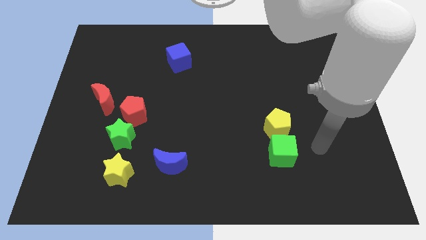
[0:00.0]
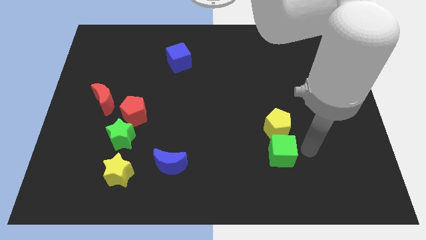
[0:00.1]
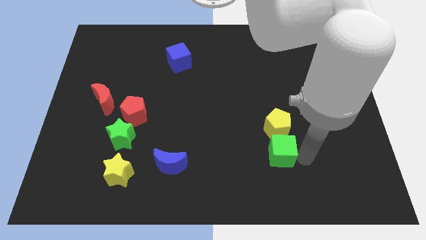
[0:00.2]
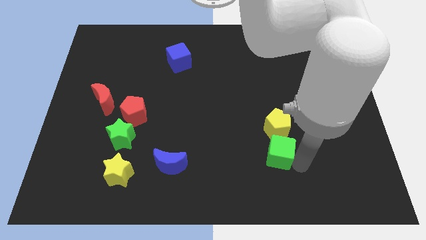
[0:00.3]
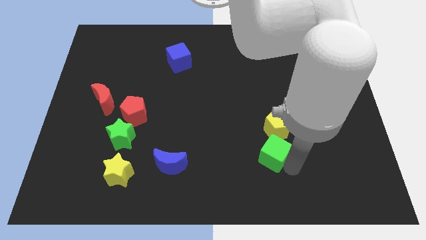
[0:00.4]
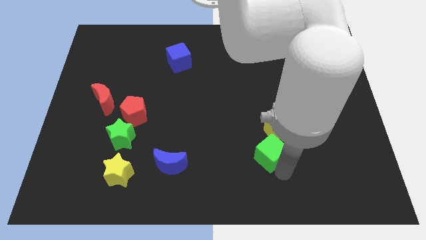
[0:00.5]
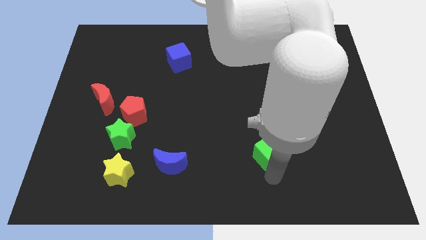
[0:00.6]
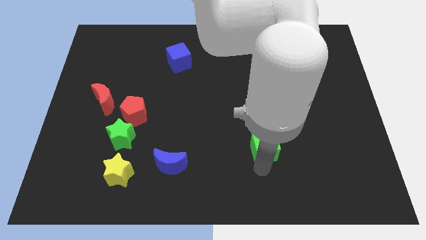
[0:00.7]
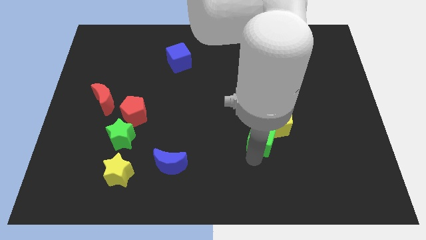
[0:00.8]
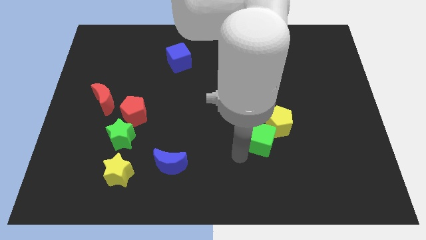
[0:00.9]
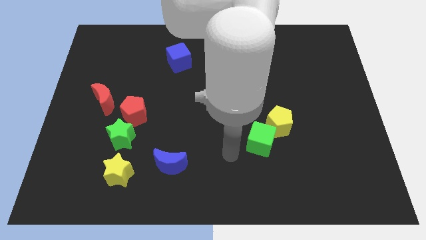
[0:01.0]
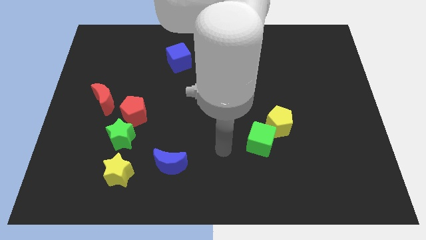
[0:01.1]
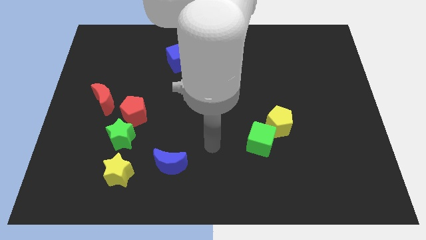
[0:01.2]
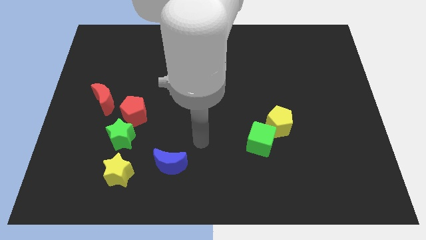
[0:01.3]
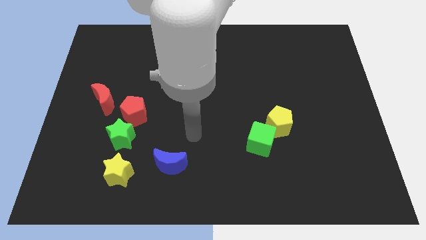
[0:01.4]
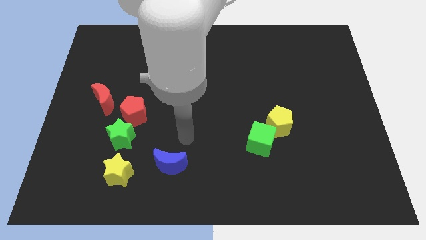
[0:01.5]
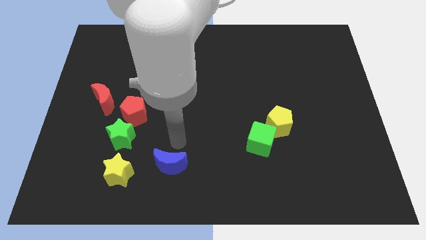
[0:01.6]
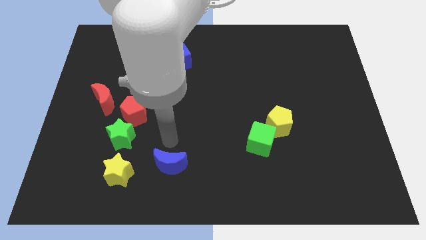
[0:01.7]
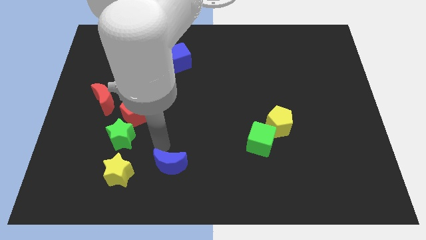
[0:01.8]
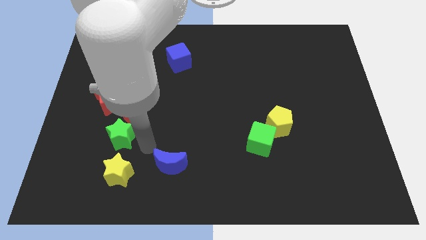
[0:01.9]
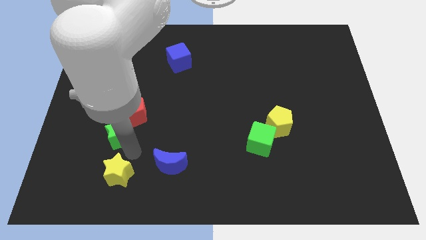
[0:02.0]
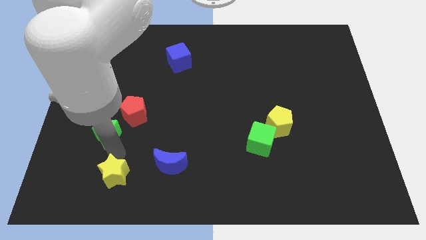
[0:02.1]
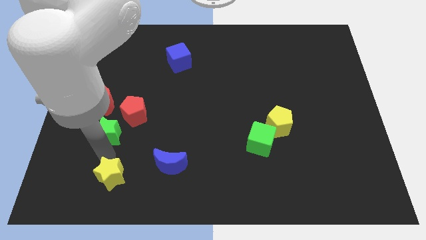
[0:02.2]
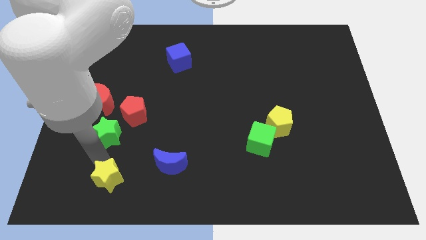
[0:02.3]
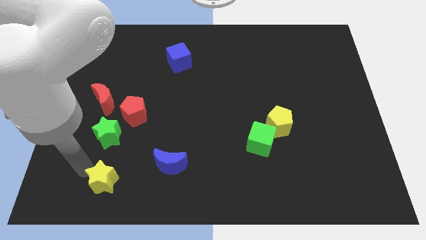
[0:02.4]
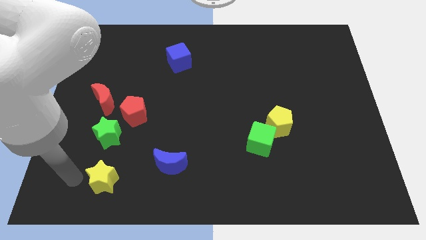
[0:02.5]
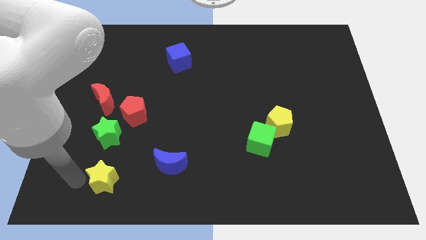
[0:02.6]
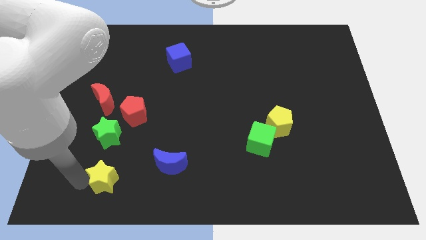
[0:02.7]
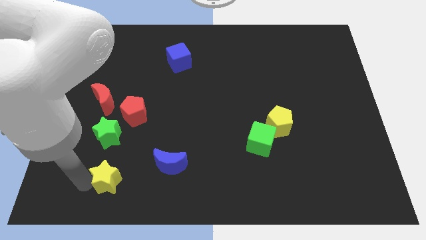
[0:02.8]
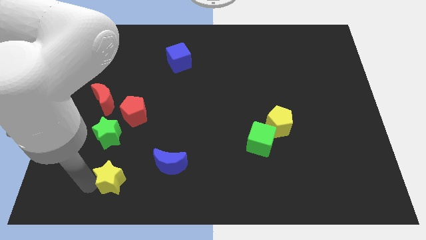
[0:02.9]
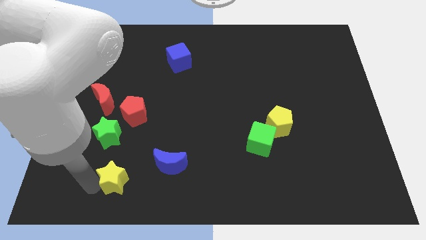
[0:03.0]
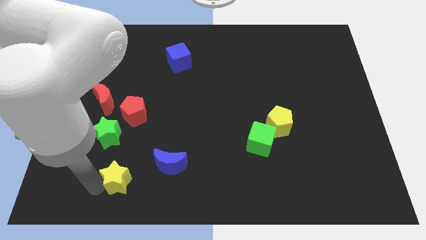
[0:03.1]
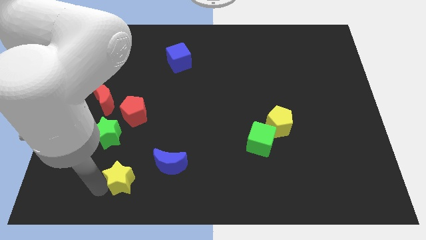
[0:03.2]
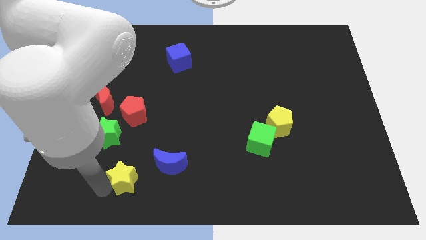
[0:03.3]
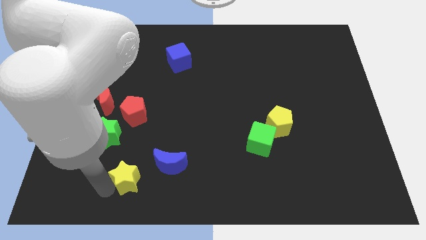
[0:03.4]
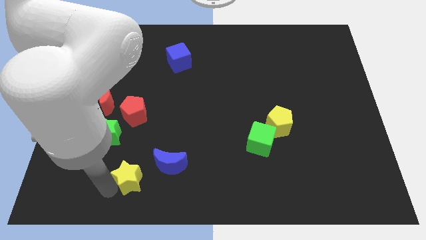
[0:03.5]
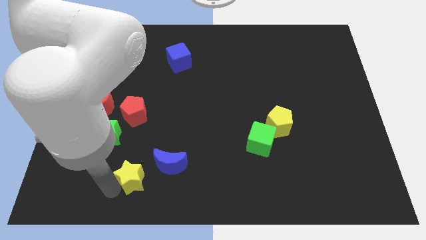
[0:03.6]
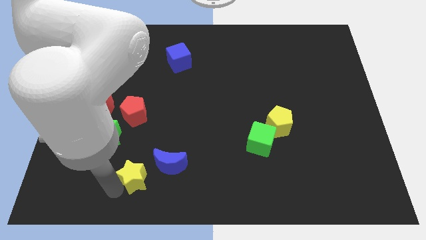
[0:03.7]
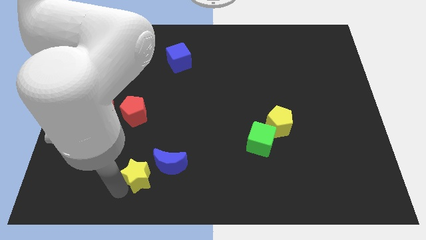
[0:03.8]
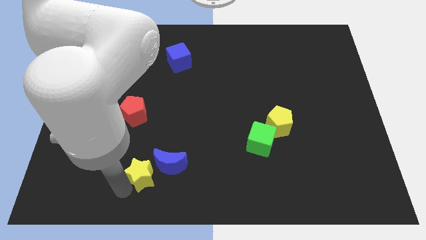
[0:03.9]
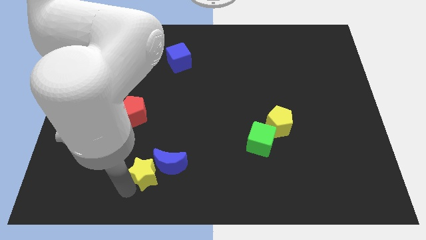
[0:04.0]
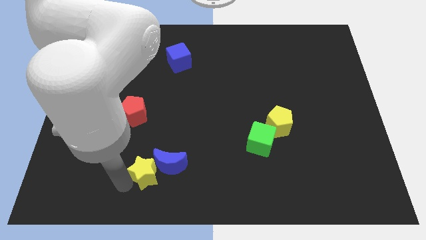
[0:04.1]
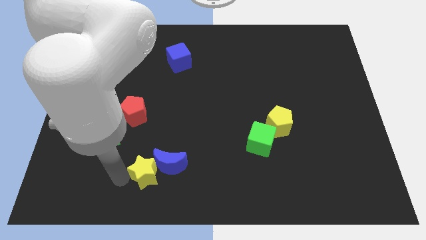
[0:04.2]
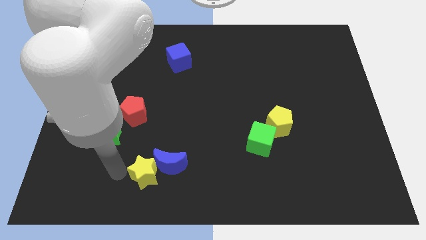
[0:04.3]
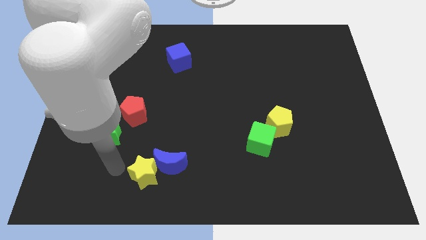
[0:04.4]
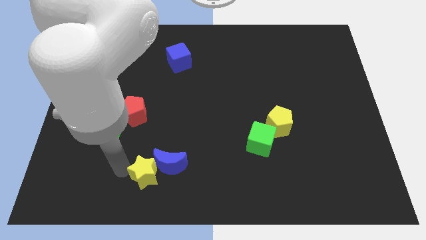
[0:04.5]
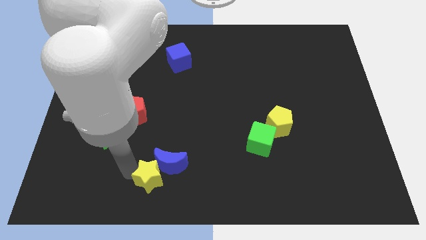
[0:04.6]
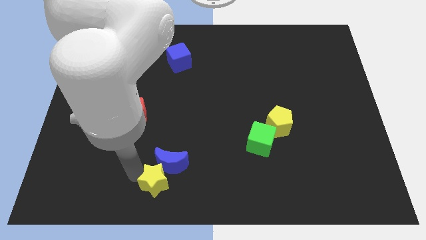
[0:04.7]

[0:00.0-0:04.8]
push the yellow star somewhat to the right

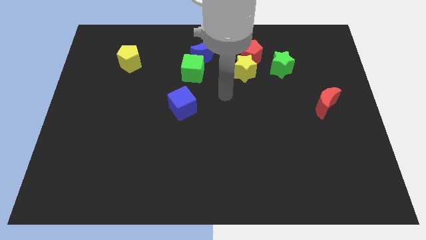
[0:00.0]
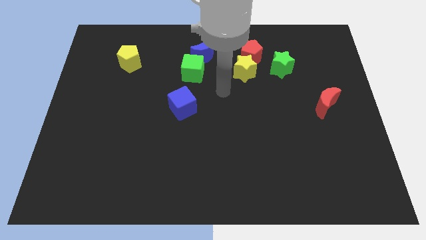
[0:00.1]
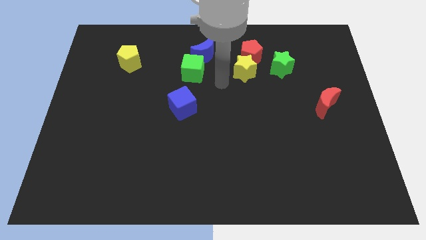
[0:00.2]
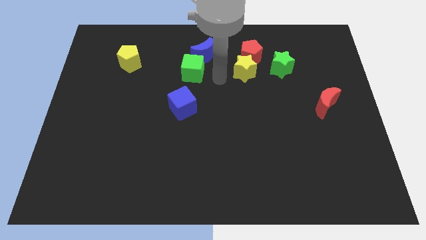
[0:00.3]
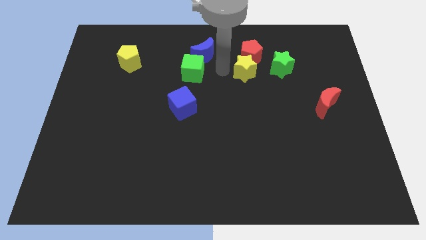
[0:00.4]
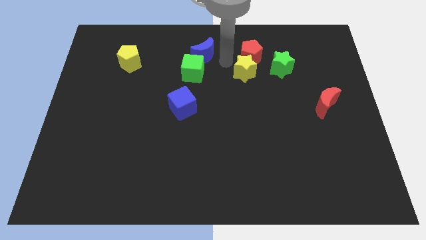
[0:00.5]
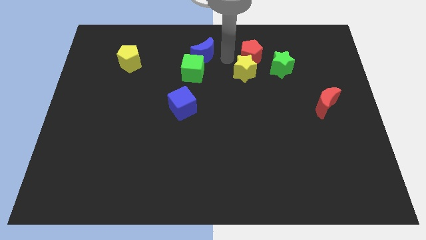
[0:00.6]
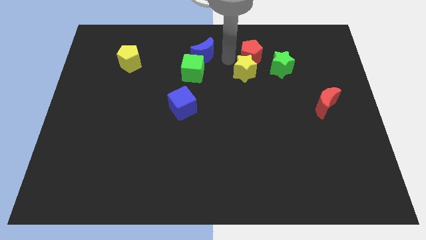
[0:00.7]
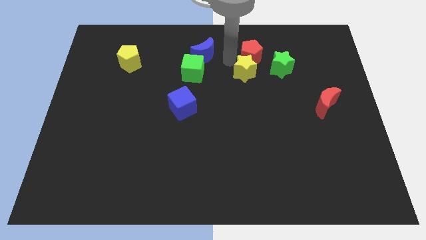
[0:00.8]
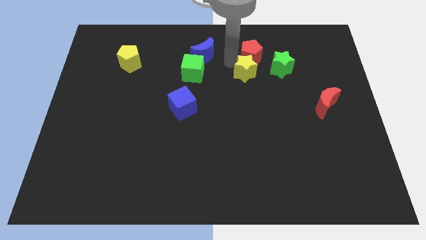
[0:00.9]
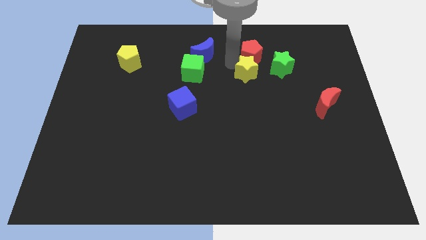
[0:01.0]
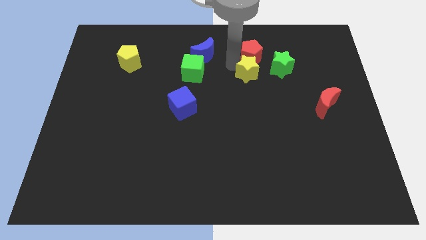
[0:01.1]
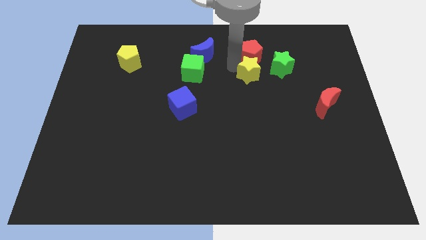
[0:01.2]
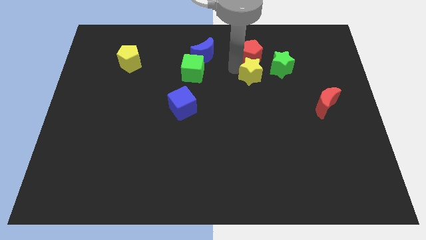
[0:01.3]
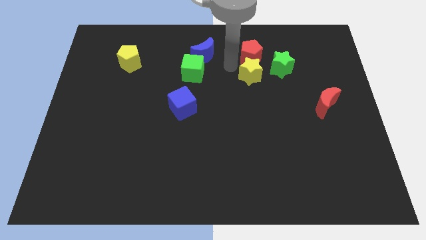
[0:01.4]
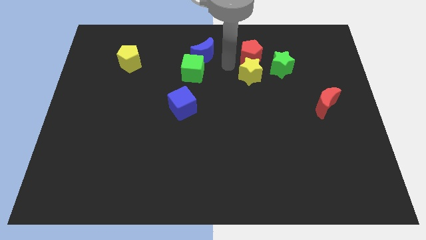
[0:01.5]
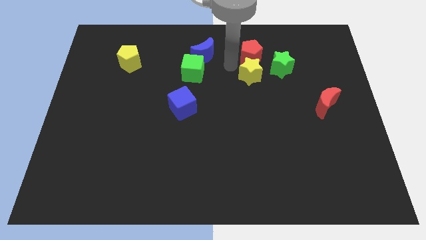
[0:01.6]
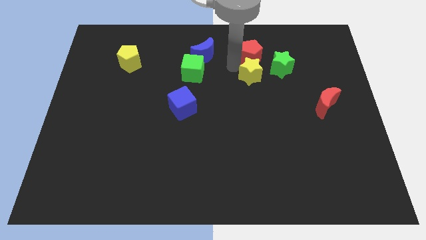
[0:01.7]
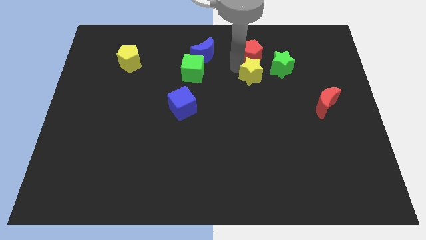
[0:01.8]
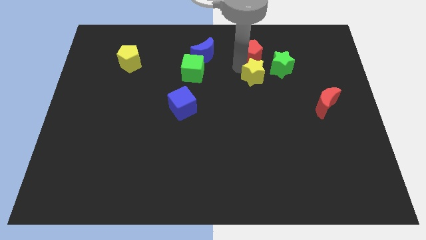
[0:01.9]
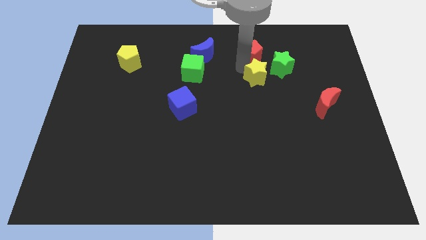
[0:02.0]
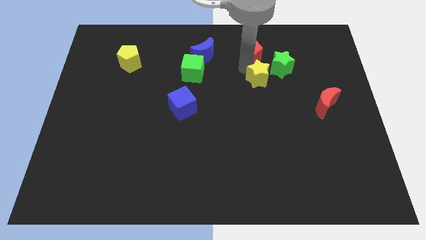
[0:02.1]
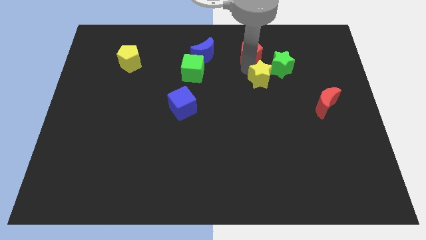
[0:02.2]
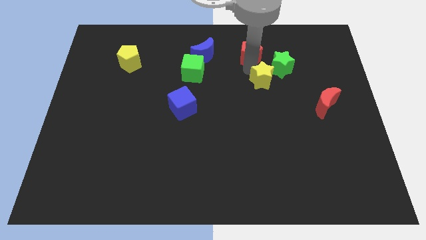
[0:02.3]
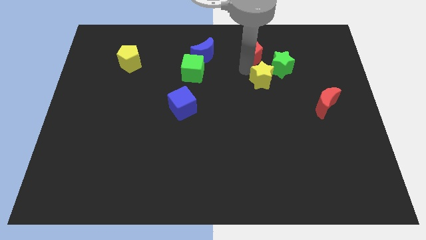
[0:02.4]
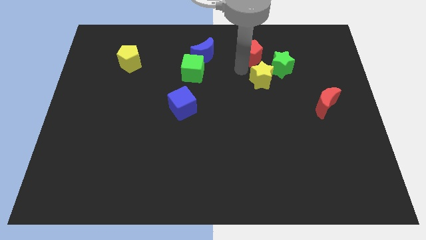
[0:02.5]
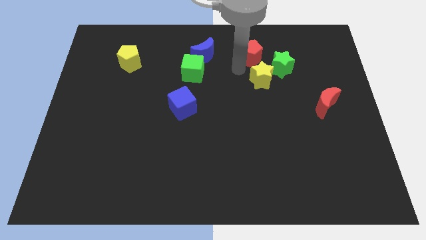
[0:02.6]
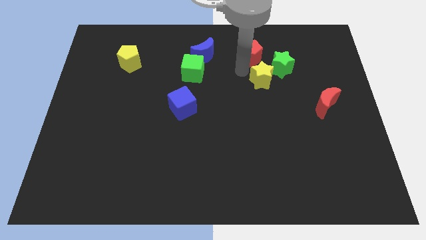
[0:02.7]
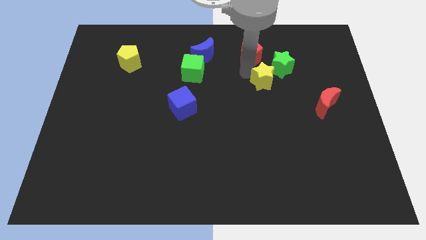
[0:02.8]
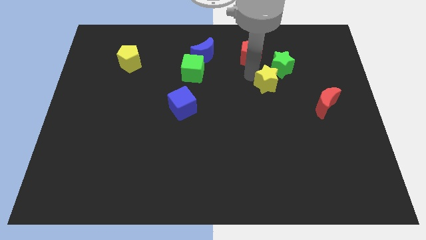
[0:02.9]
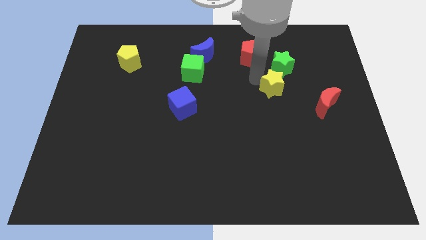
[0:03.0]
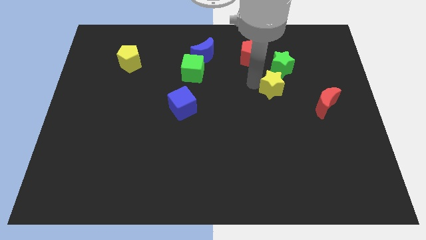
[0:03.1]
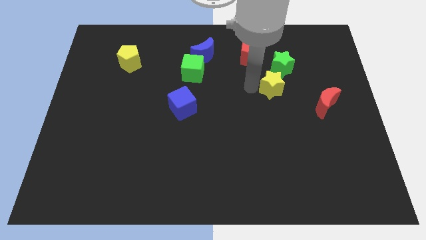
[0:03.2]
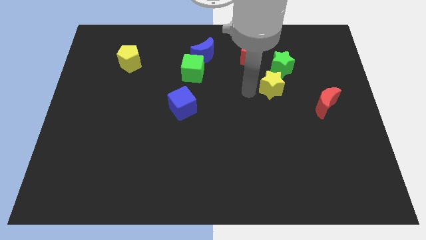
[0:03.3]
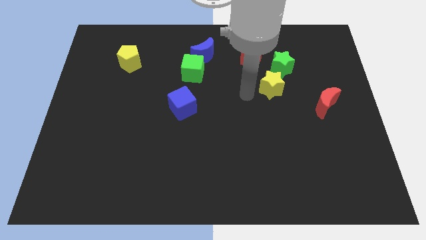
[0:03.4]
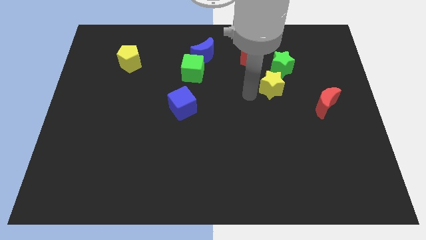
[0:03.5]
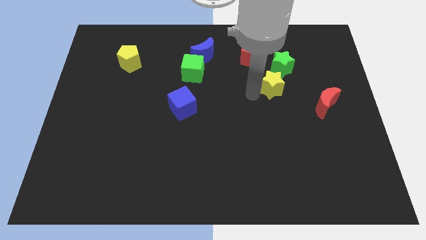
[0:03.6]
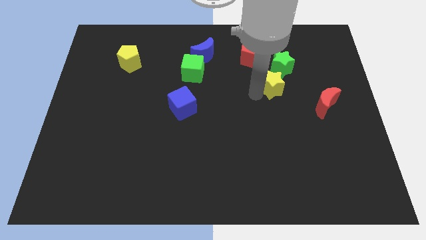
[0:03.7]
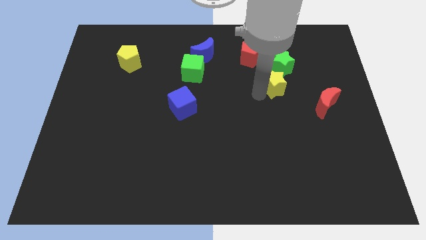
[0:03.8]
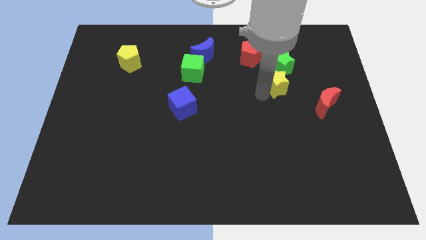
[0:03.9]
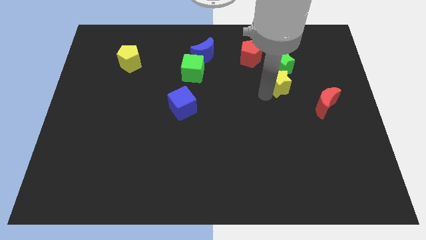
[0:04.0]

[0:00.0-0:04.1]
push the yellow star slightly to the right
